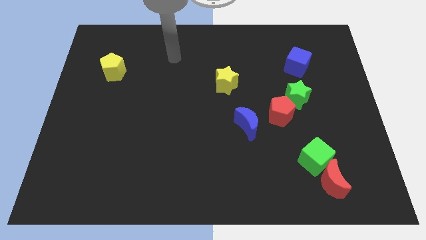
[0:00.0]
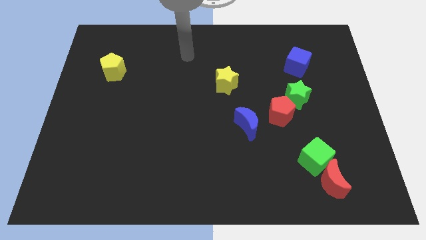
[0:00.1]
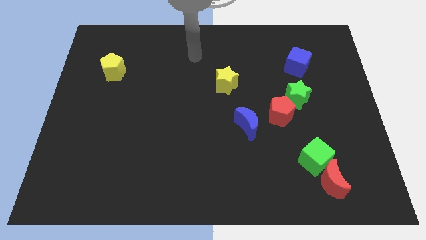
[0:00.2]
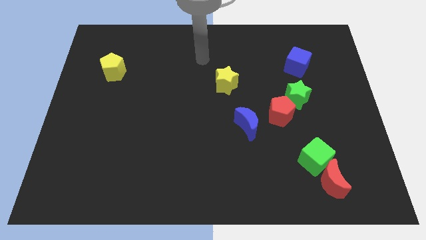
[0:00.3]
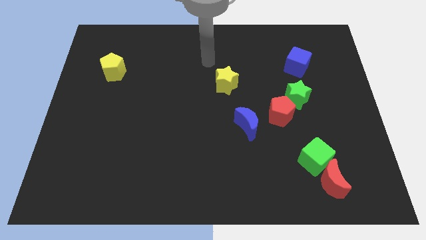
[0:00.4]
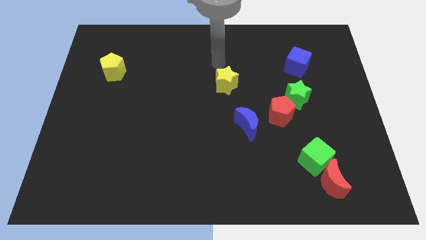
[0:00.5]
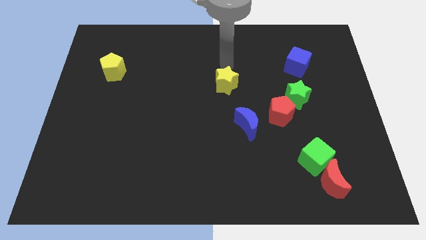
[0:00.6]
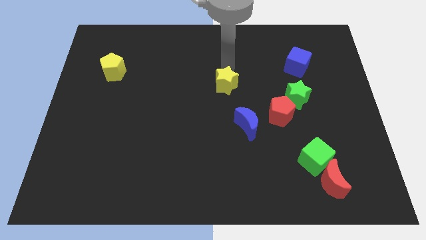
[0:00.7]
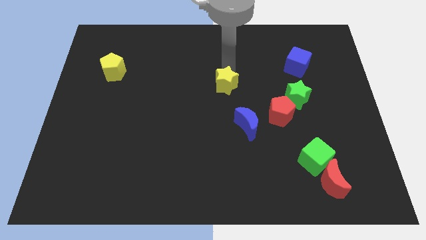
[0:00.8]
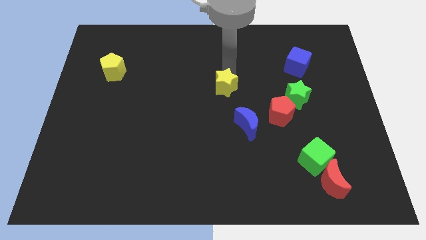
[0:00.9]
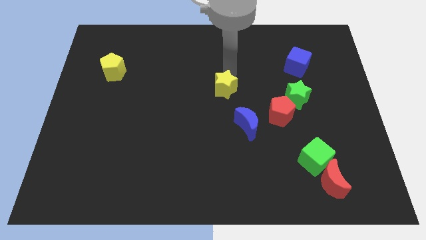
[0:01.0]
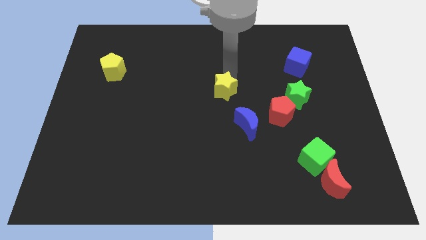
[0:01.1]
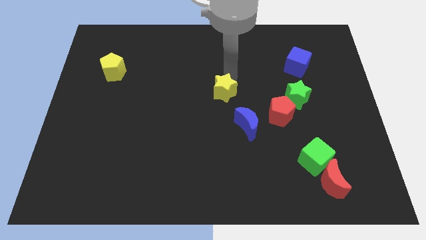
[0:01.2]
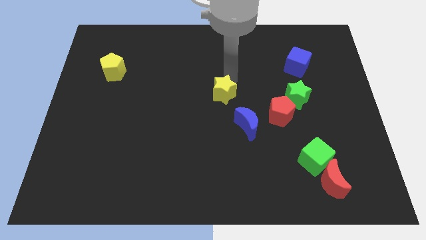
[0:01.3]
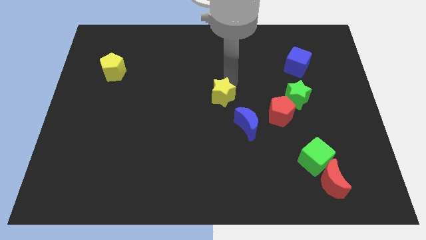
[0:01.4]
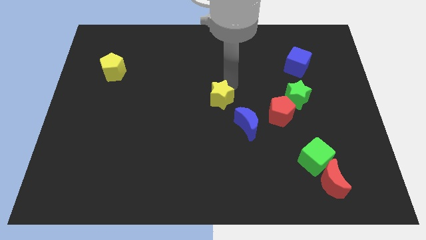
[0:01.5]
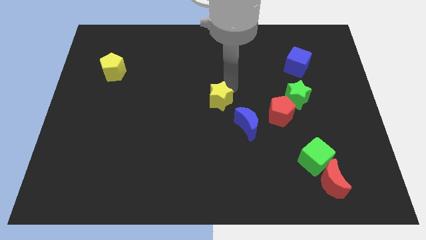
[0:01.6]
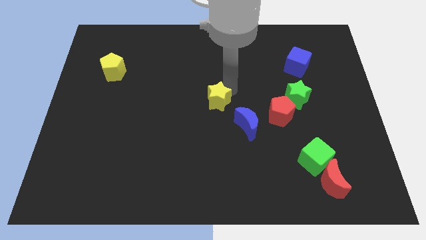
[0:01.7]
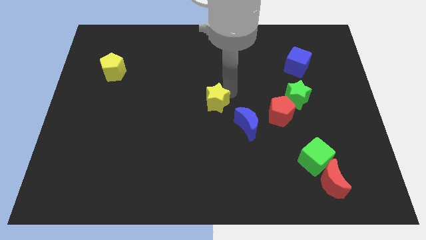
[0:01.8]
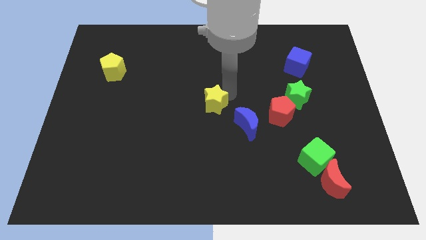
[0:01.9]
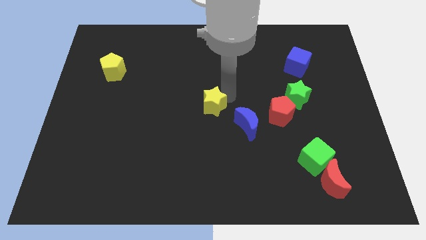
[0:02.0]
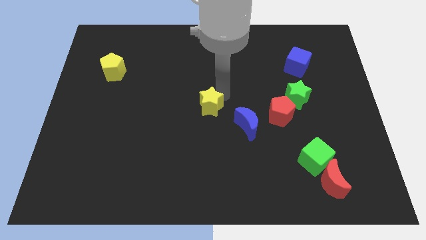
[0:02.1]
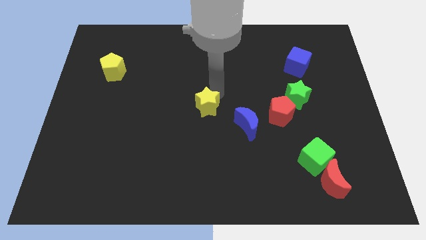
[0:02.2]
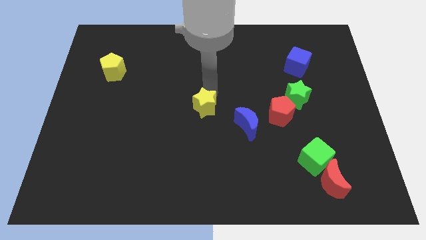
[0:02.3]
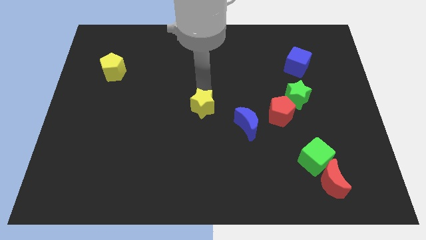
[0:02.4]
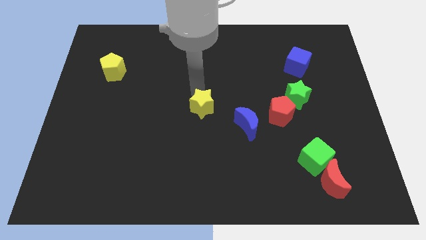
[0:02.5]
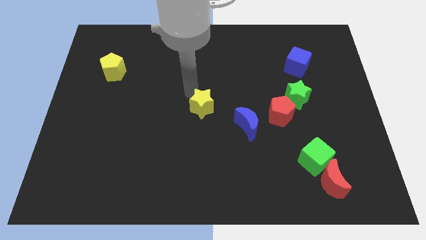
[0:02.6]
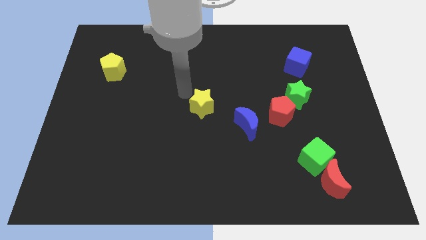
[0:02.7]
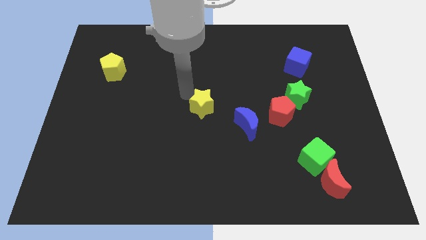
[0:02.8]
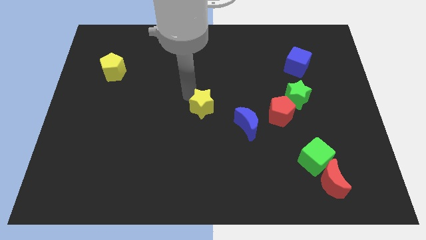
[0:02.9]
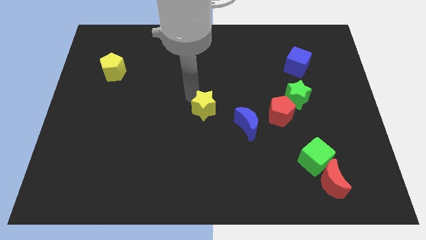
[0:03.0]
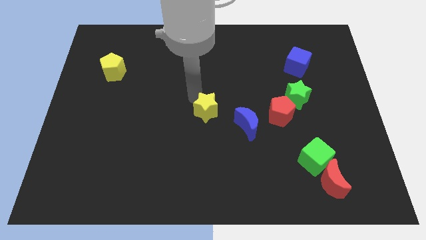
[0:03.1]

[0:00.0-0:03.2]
push the yellow star a bit downwards

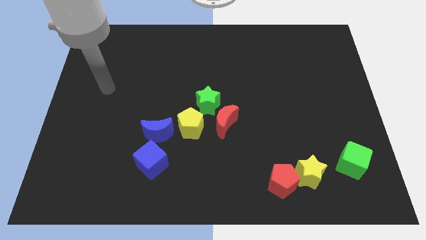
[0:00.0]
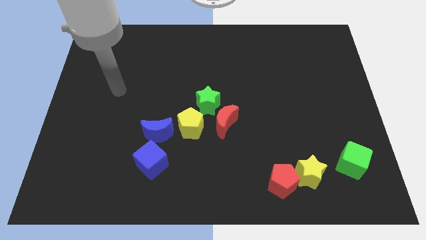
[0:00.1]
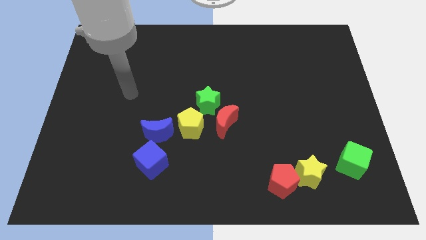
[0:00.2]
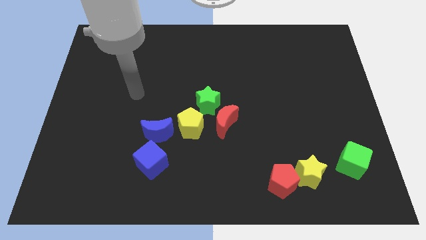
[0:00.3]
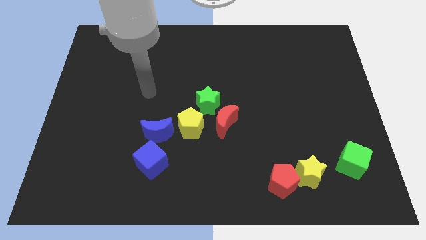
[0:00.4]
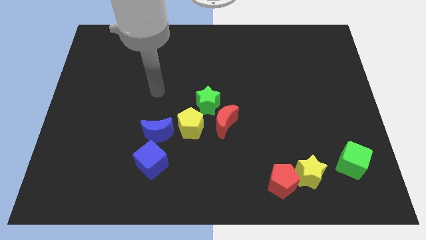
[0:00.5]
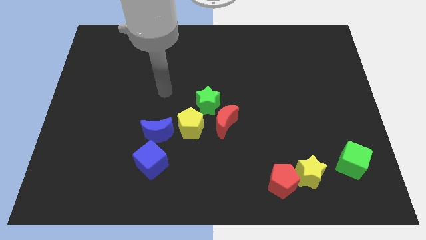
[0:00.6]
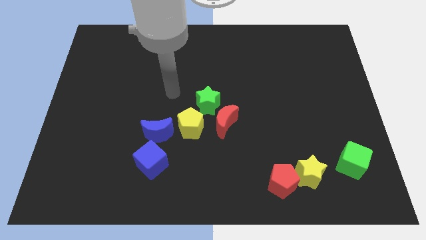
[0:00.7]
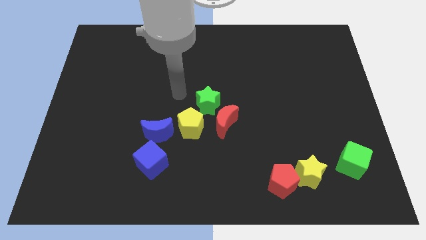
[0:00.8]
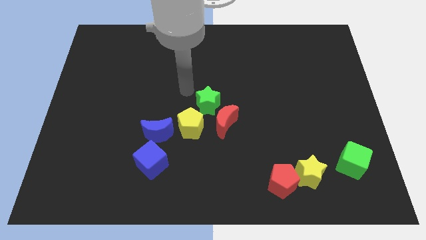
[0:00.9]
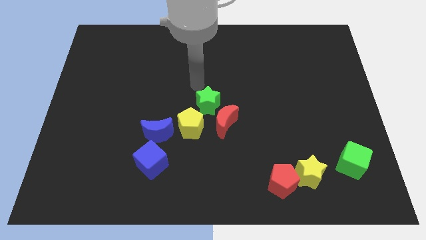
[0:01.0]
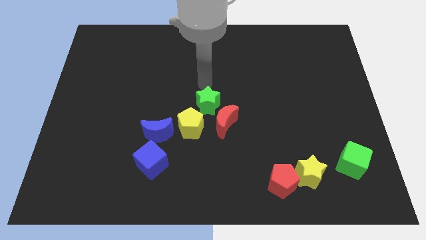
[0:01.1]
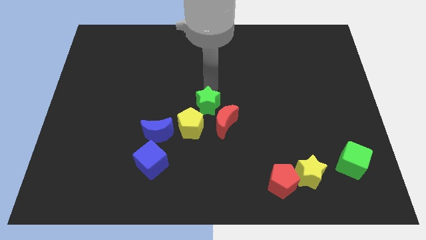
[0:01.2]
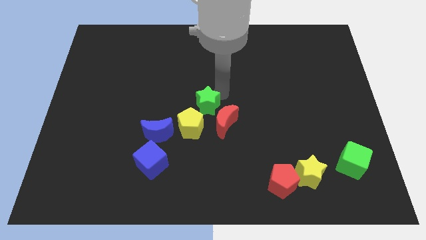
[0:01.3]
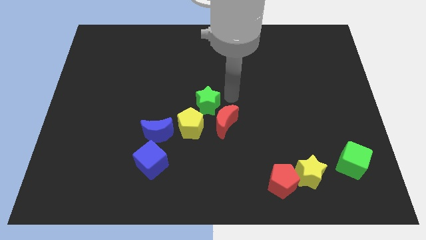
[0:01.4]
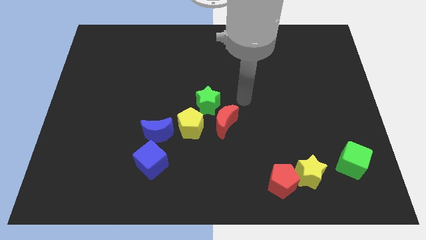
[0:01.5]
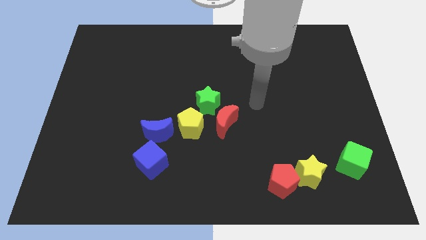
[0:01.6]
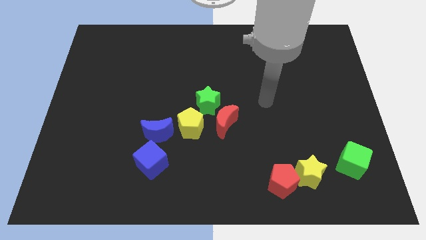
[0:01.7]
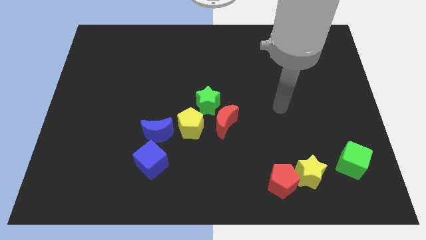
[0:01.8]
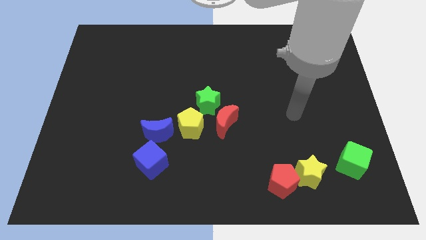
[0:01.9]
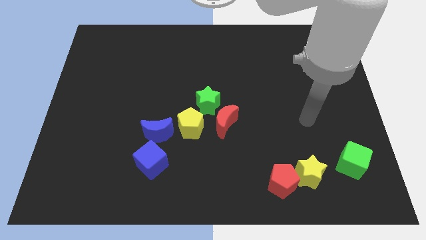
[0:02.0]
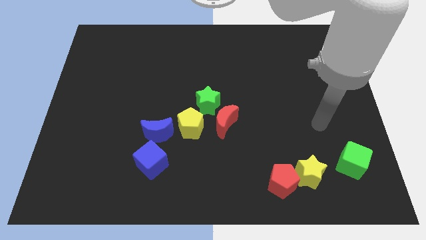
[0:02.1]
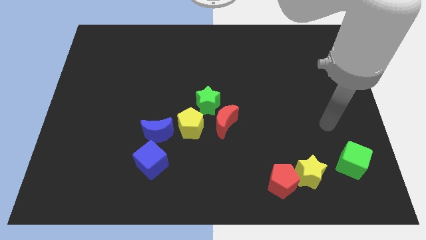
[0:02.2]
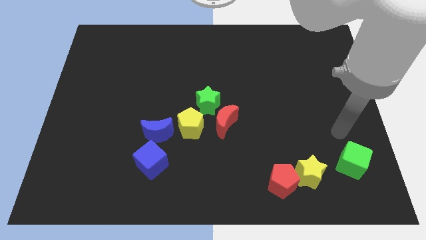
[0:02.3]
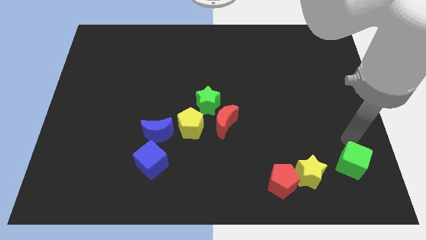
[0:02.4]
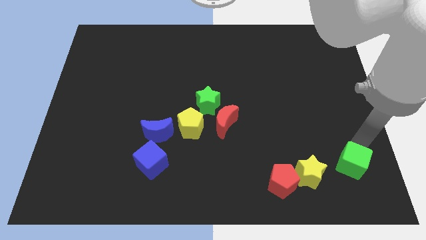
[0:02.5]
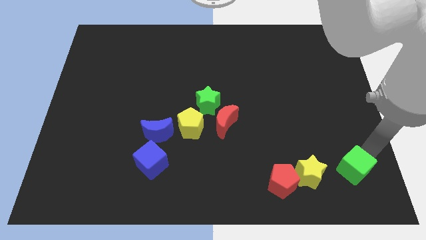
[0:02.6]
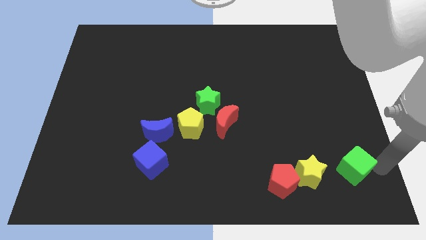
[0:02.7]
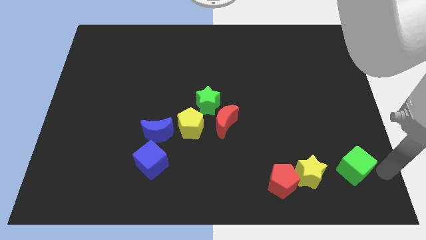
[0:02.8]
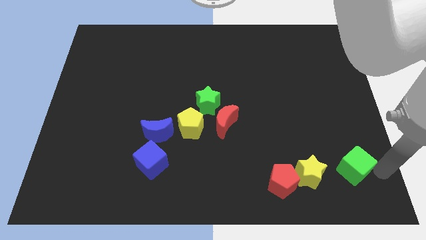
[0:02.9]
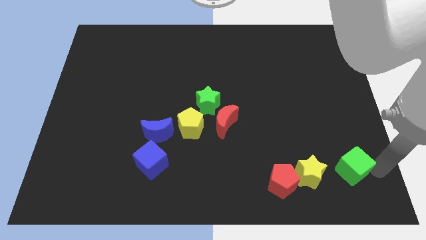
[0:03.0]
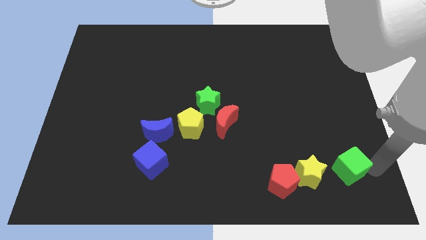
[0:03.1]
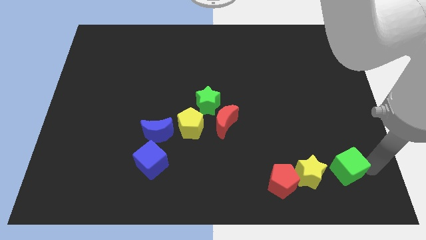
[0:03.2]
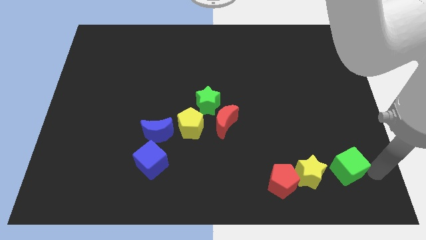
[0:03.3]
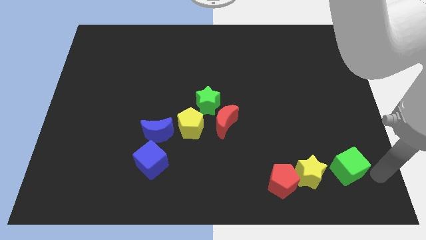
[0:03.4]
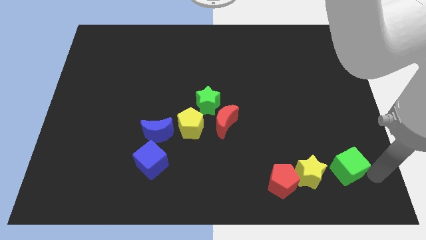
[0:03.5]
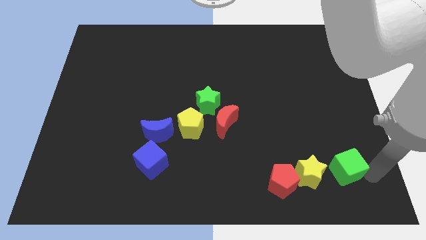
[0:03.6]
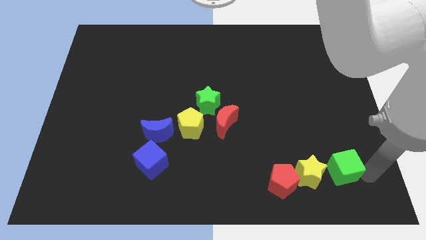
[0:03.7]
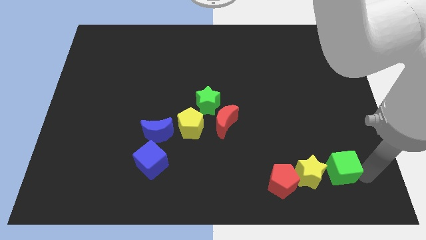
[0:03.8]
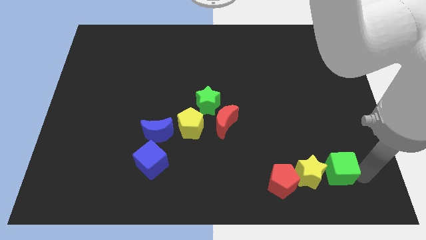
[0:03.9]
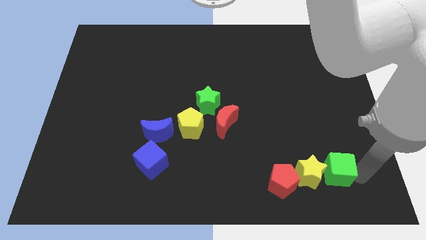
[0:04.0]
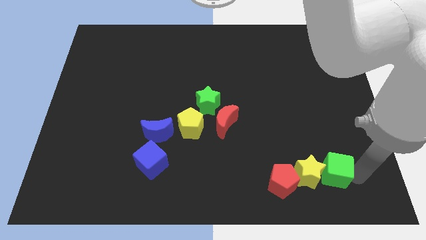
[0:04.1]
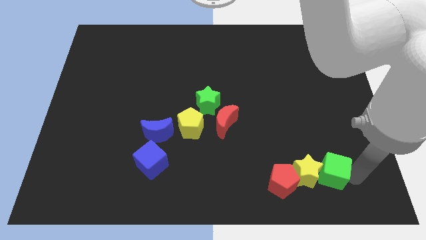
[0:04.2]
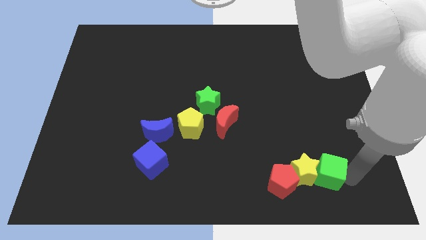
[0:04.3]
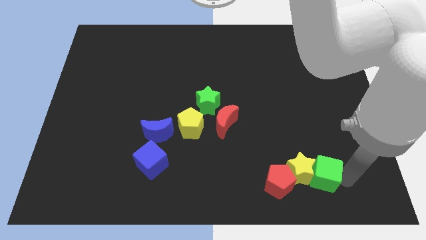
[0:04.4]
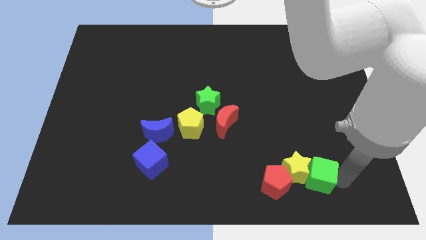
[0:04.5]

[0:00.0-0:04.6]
push the green cube left slightly

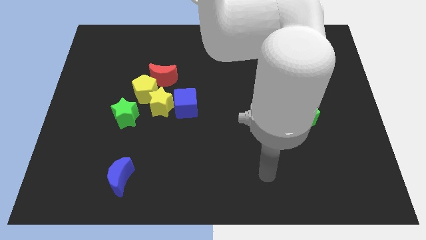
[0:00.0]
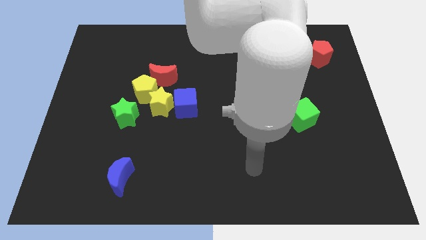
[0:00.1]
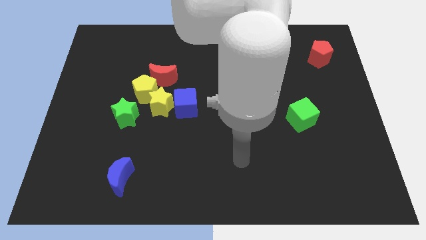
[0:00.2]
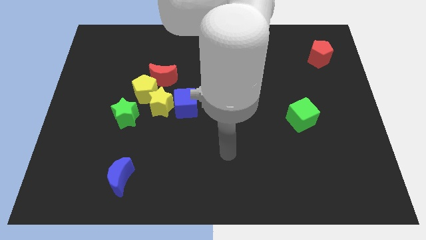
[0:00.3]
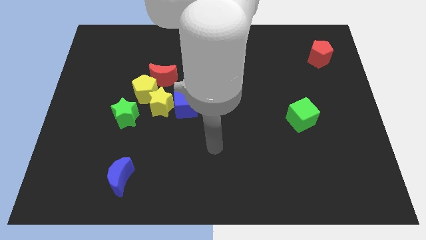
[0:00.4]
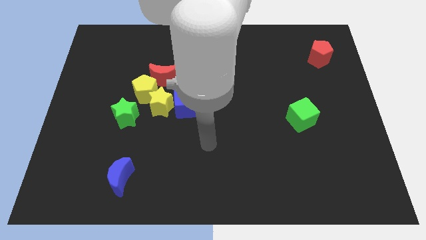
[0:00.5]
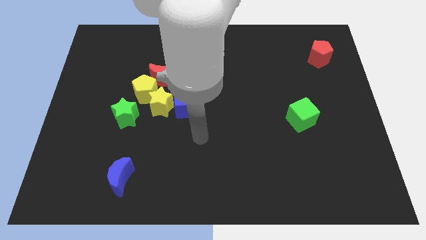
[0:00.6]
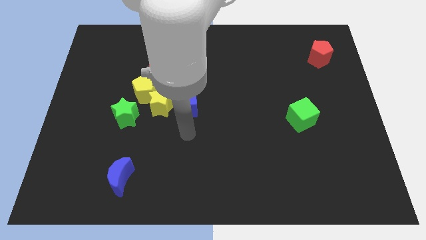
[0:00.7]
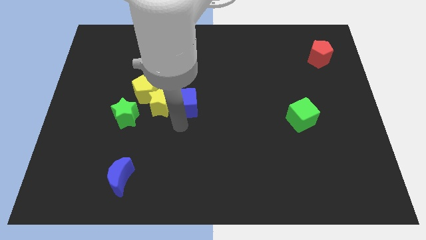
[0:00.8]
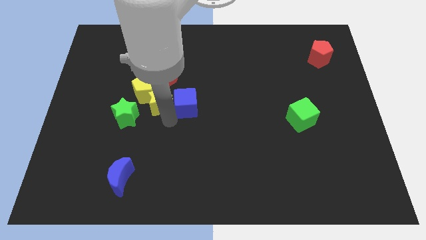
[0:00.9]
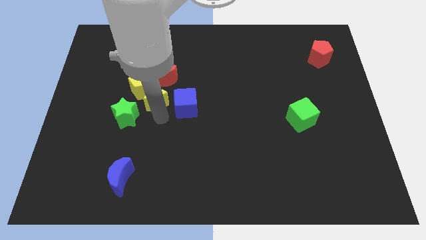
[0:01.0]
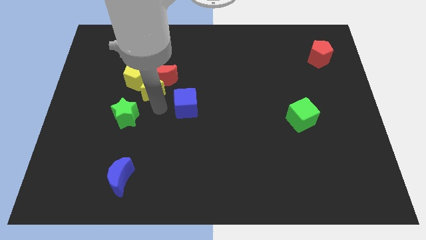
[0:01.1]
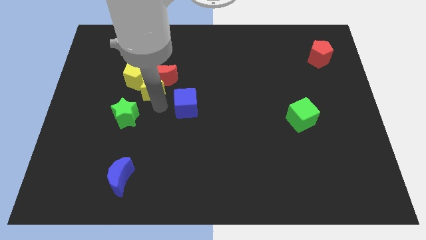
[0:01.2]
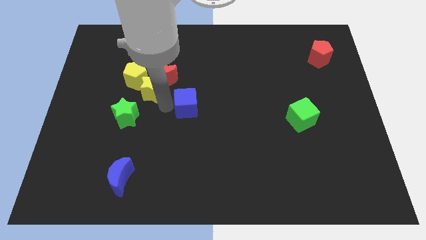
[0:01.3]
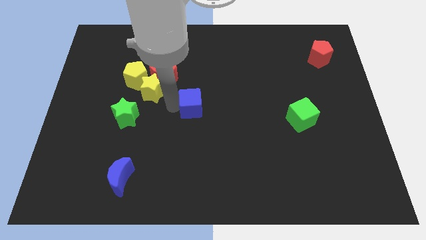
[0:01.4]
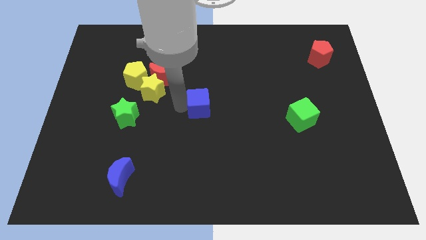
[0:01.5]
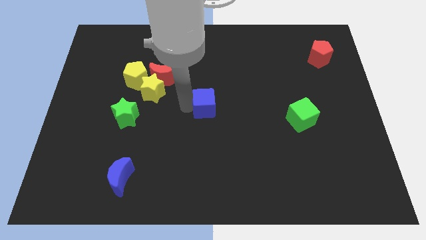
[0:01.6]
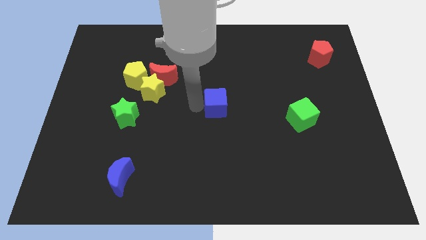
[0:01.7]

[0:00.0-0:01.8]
move the blue cube to the right a bit
